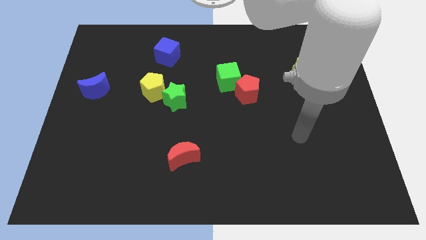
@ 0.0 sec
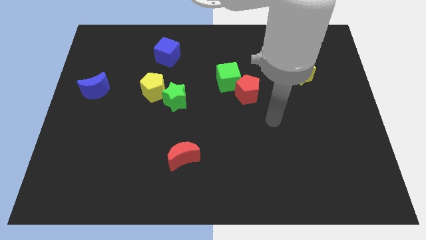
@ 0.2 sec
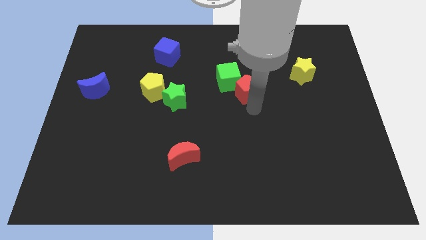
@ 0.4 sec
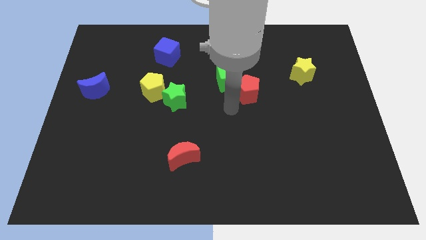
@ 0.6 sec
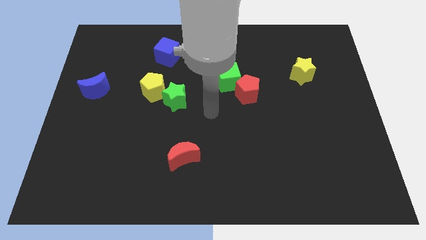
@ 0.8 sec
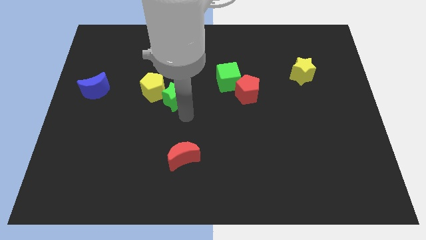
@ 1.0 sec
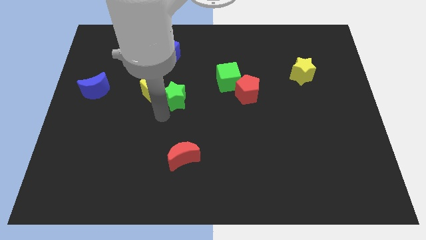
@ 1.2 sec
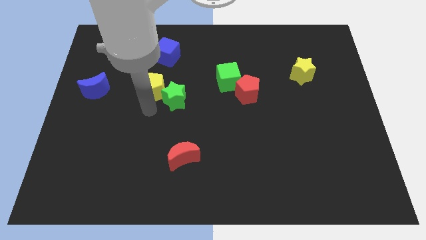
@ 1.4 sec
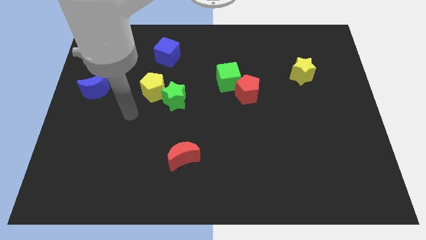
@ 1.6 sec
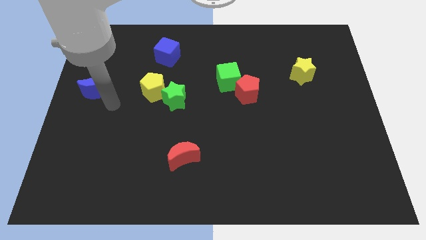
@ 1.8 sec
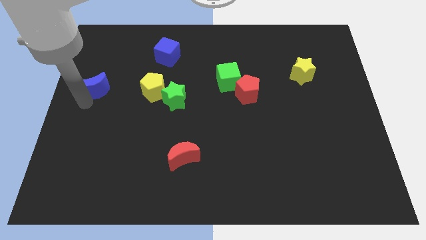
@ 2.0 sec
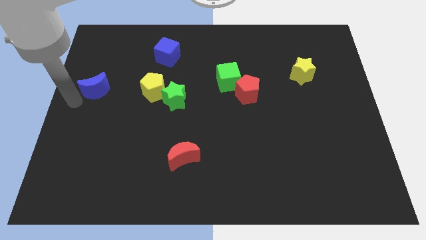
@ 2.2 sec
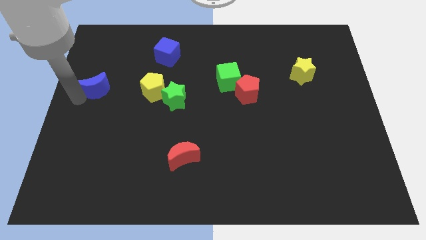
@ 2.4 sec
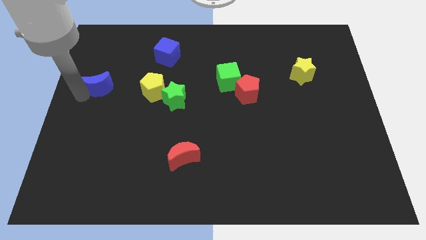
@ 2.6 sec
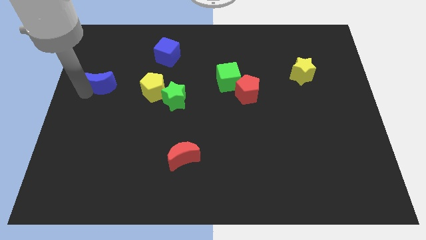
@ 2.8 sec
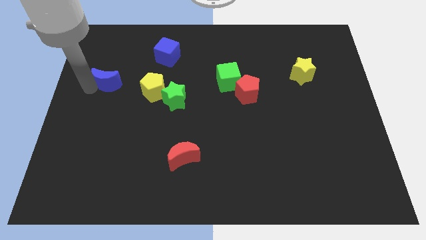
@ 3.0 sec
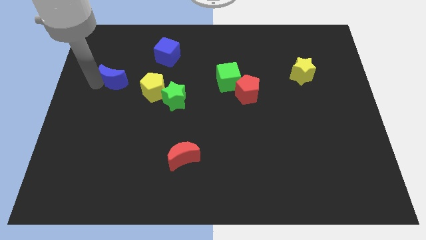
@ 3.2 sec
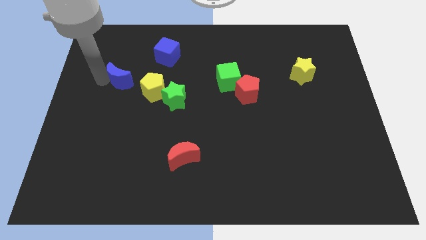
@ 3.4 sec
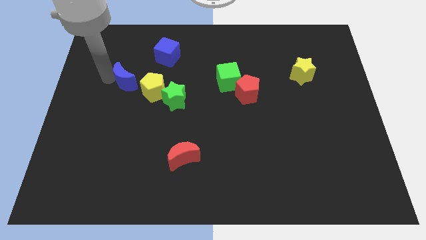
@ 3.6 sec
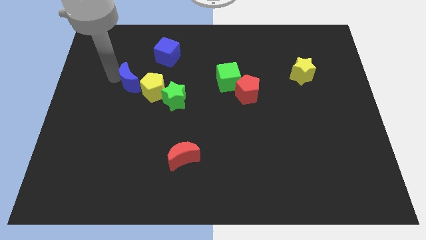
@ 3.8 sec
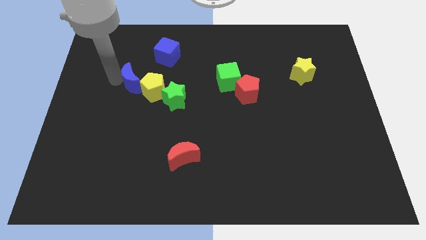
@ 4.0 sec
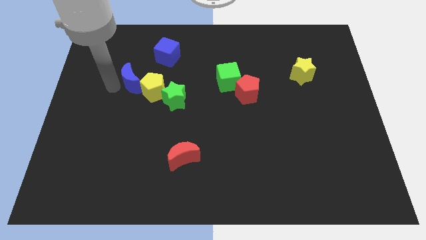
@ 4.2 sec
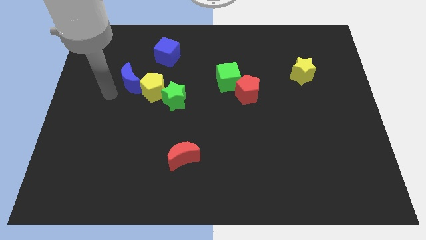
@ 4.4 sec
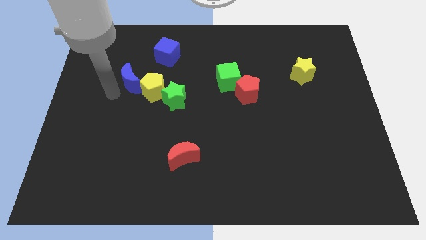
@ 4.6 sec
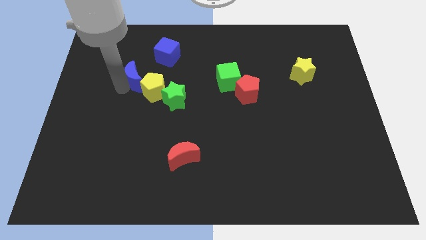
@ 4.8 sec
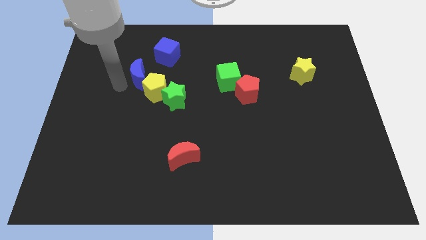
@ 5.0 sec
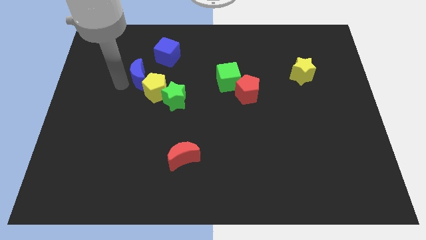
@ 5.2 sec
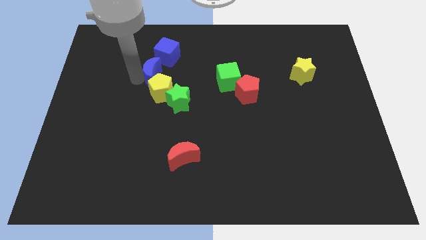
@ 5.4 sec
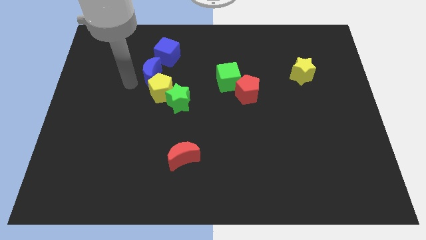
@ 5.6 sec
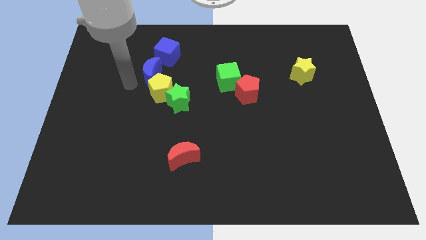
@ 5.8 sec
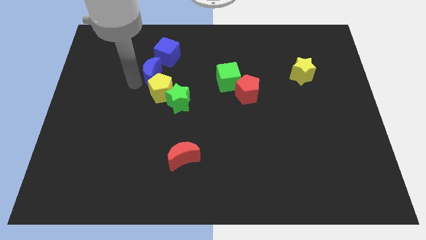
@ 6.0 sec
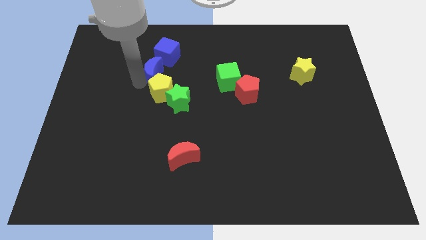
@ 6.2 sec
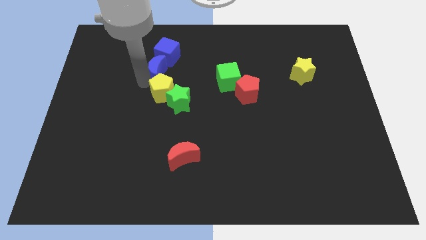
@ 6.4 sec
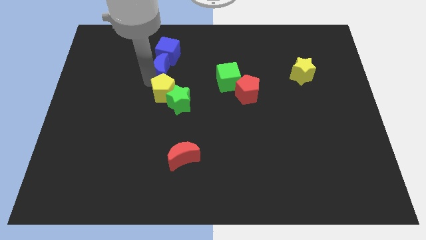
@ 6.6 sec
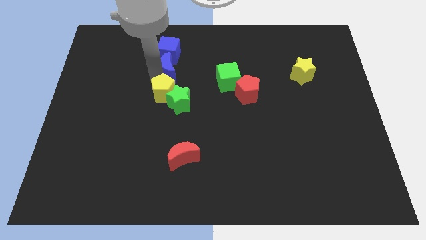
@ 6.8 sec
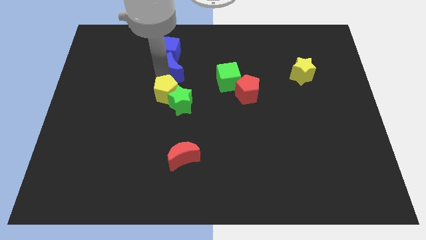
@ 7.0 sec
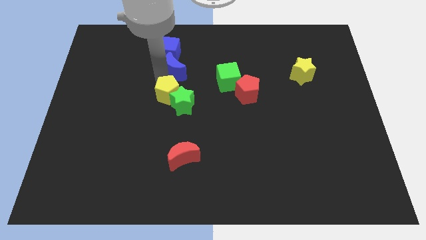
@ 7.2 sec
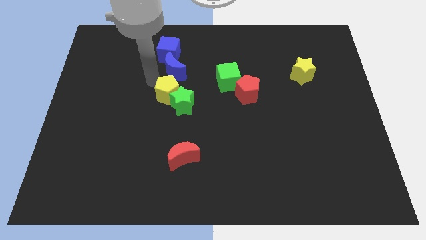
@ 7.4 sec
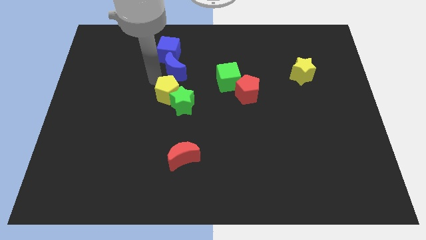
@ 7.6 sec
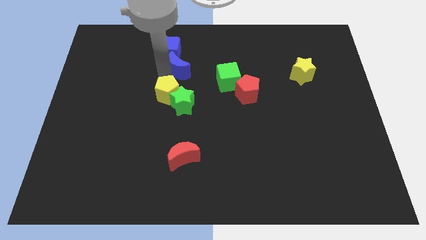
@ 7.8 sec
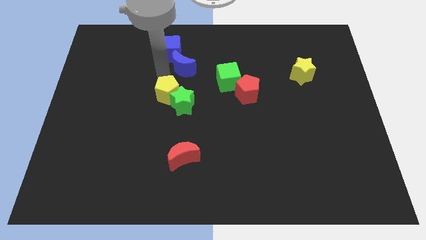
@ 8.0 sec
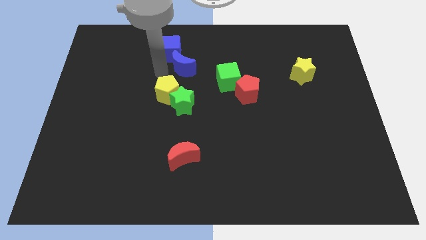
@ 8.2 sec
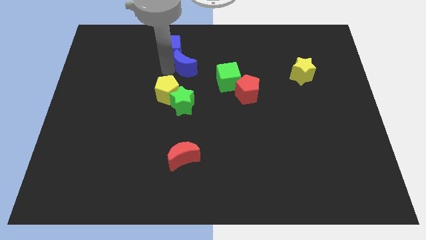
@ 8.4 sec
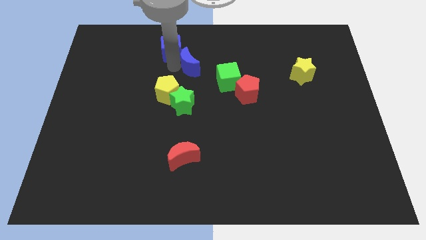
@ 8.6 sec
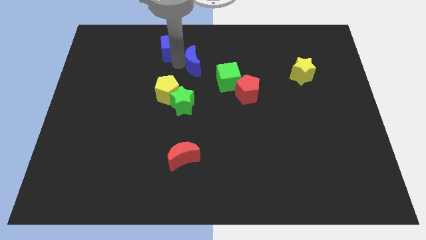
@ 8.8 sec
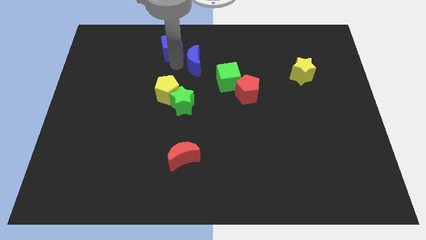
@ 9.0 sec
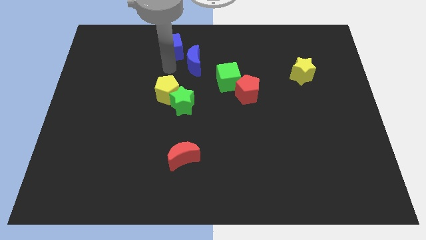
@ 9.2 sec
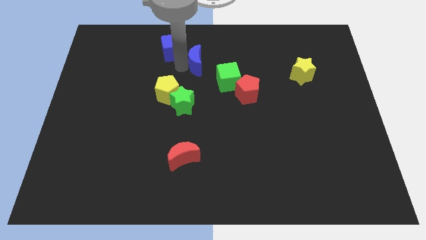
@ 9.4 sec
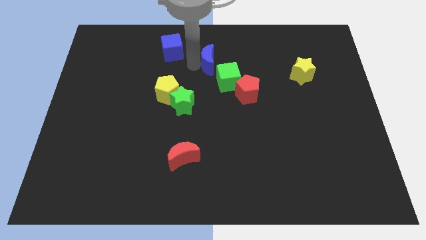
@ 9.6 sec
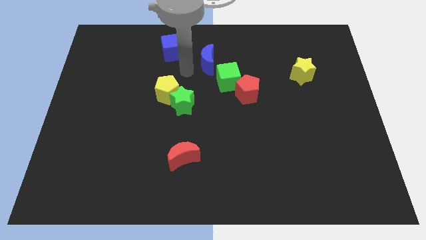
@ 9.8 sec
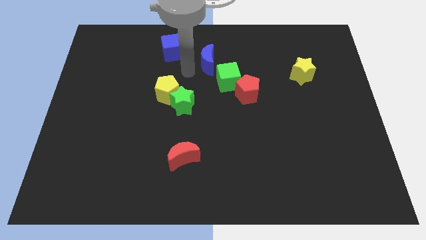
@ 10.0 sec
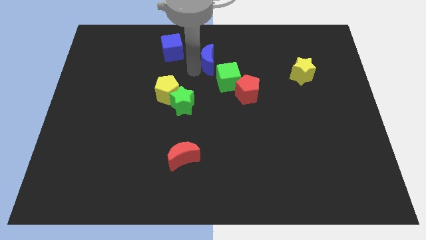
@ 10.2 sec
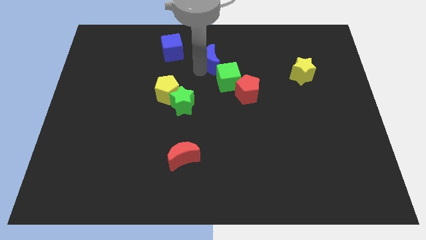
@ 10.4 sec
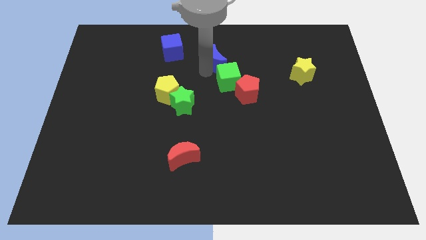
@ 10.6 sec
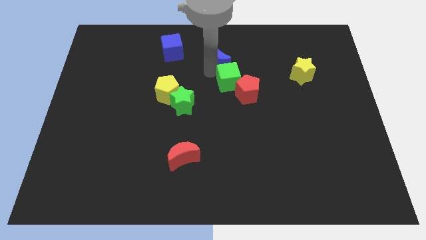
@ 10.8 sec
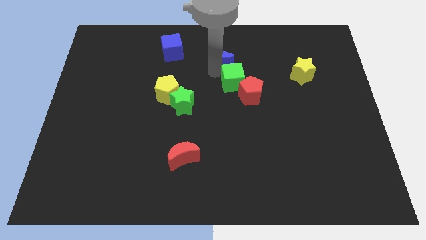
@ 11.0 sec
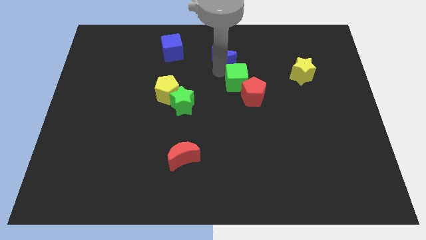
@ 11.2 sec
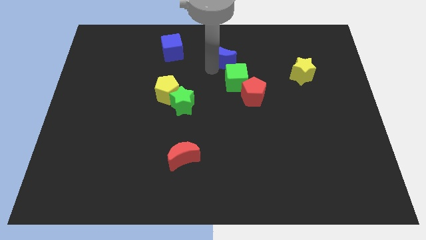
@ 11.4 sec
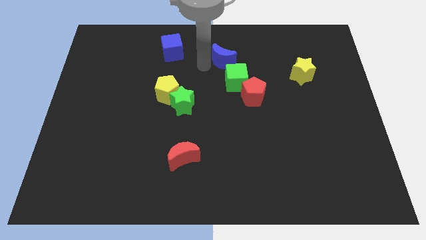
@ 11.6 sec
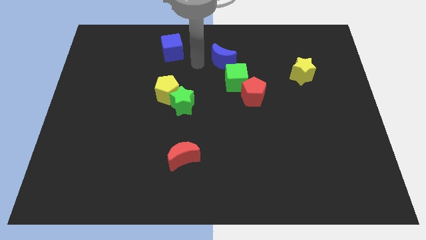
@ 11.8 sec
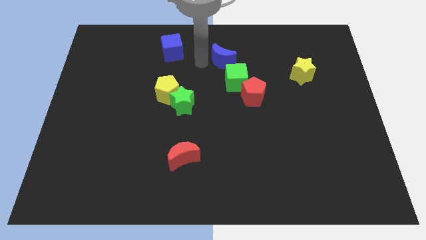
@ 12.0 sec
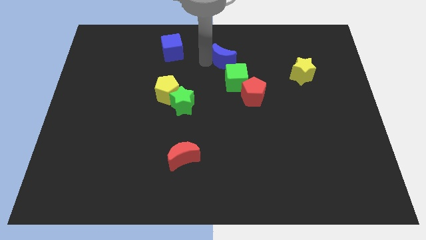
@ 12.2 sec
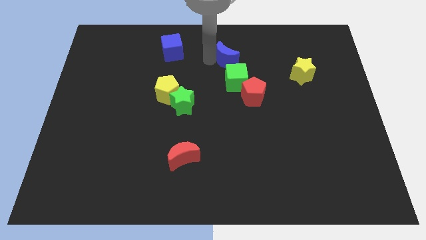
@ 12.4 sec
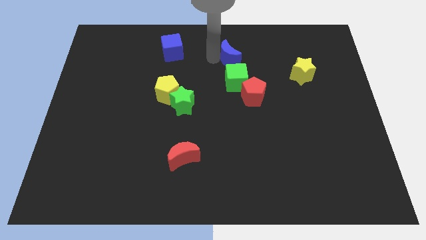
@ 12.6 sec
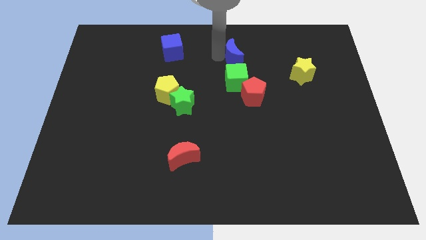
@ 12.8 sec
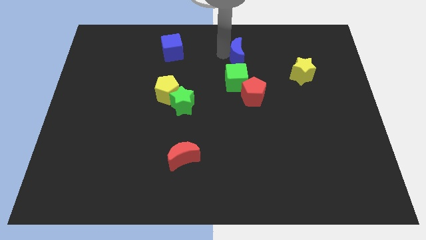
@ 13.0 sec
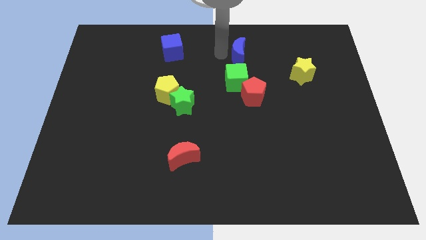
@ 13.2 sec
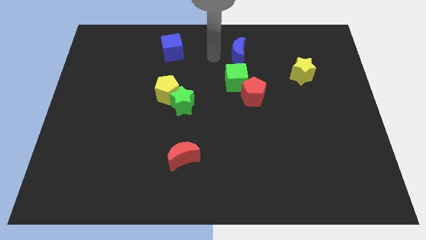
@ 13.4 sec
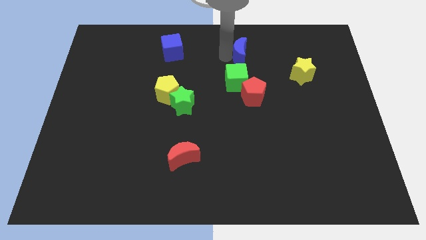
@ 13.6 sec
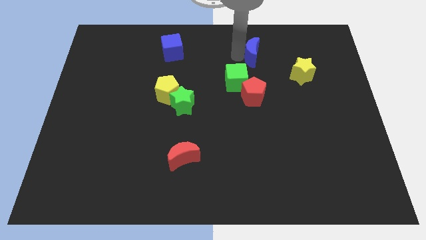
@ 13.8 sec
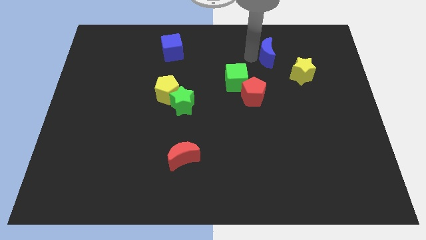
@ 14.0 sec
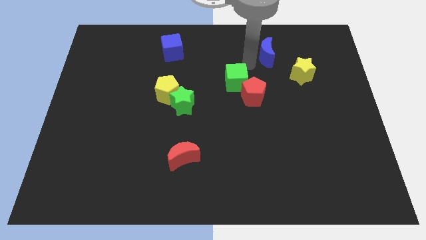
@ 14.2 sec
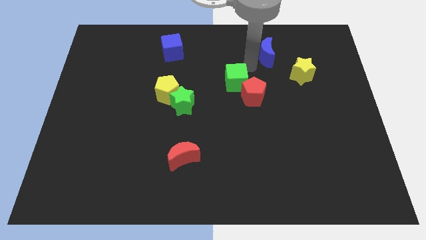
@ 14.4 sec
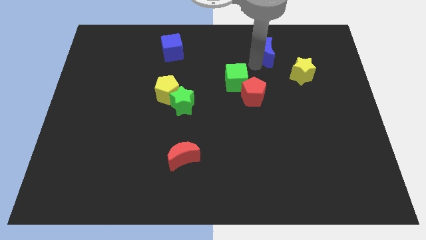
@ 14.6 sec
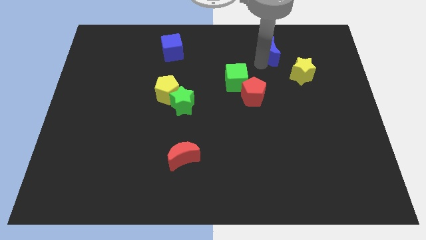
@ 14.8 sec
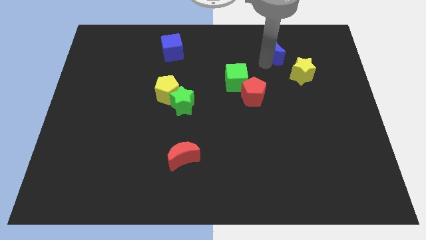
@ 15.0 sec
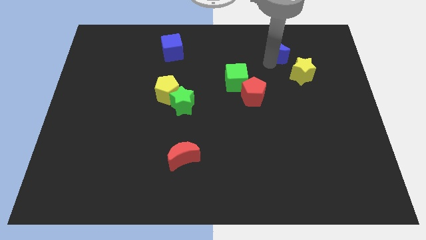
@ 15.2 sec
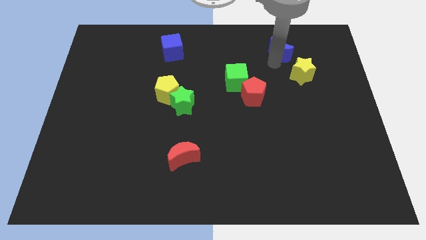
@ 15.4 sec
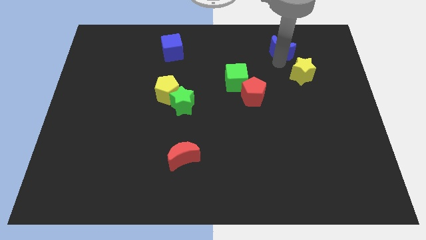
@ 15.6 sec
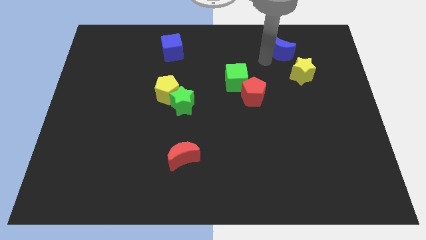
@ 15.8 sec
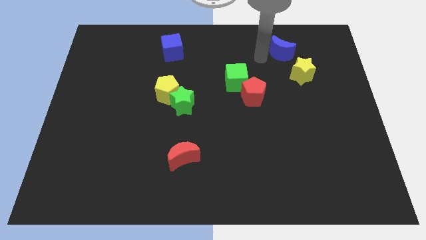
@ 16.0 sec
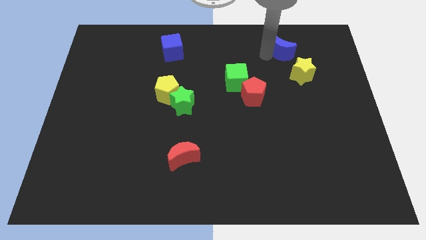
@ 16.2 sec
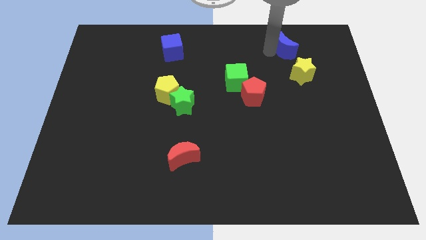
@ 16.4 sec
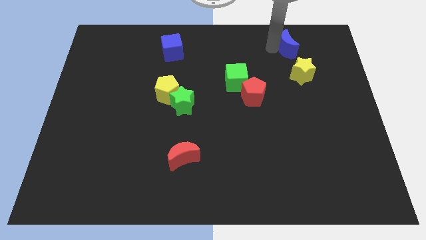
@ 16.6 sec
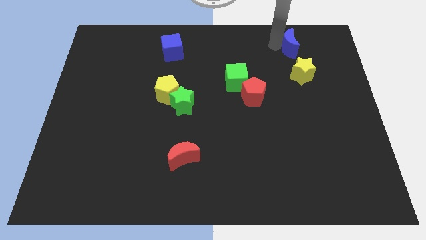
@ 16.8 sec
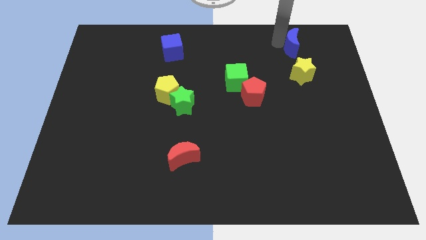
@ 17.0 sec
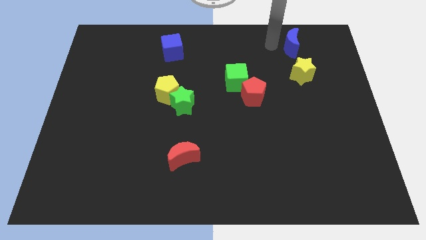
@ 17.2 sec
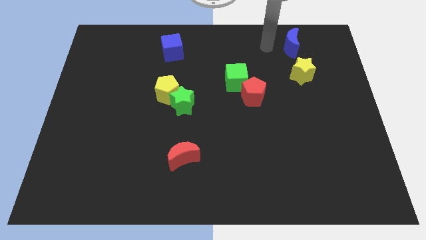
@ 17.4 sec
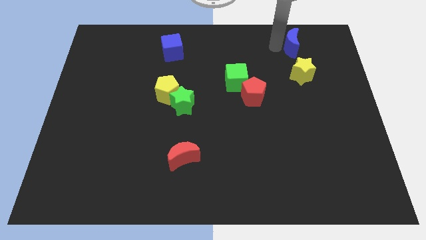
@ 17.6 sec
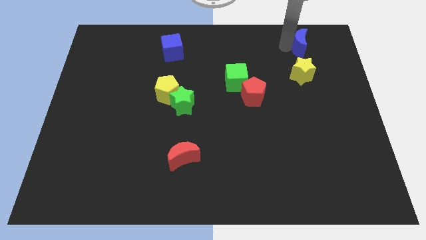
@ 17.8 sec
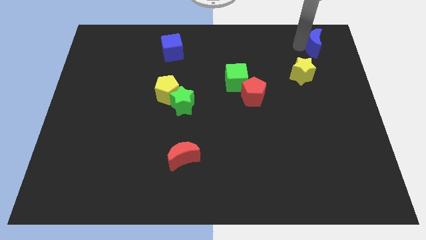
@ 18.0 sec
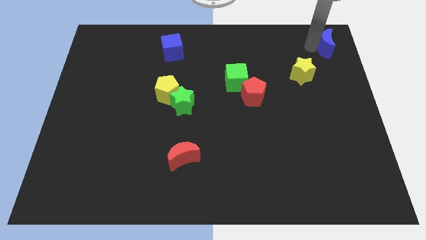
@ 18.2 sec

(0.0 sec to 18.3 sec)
put the blue moon to the upper right corner
